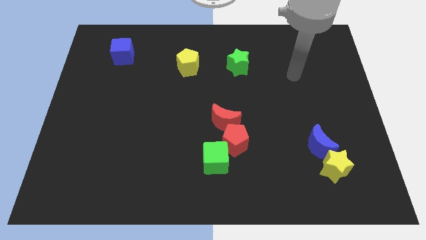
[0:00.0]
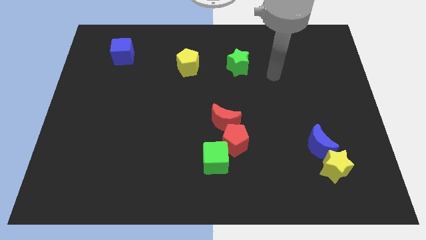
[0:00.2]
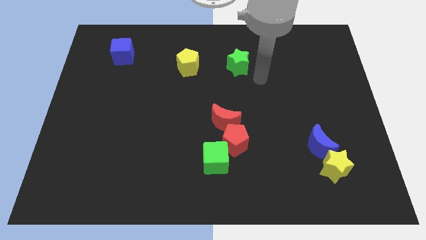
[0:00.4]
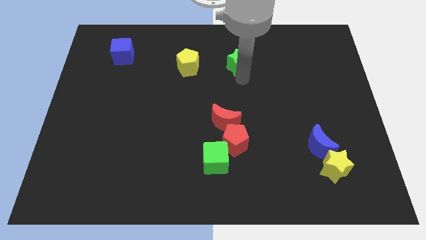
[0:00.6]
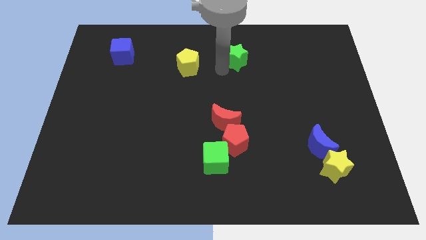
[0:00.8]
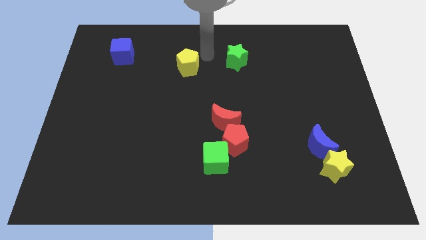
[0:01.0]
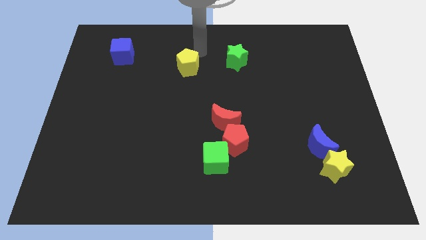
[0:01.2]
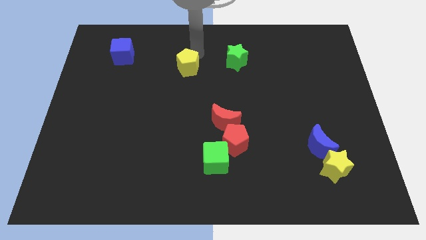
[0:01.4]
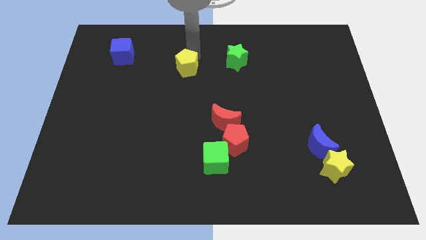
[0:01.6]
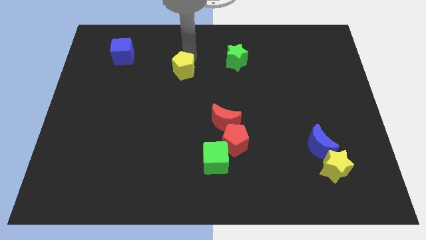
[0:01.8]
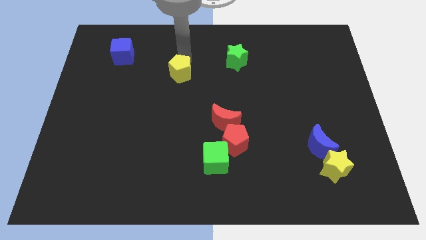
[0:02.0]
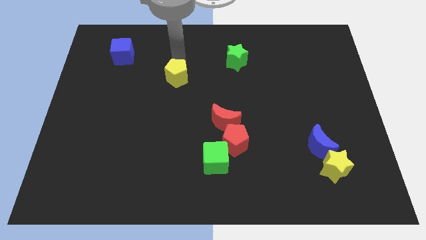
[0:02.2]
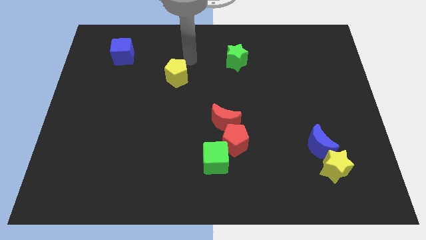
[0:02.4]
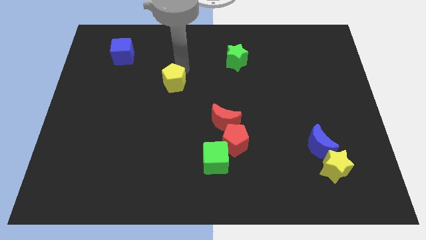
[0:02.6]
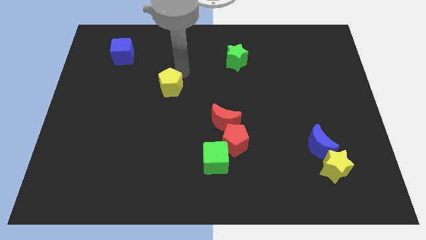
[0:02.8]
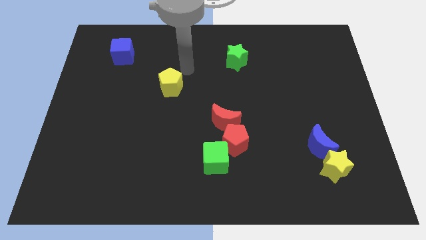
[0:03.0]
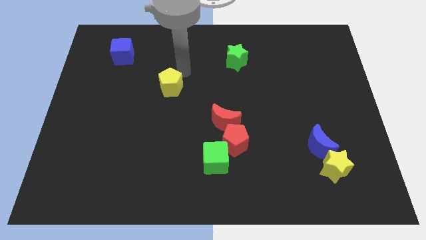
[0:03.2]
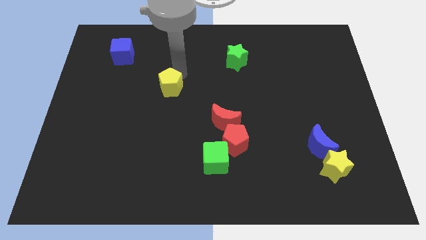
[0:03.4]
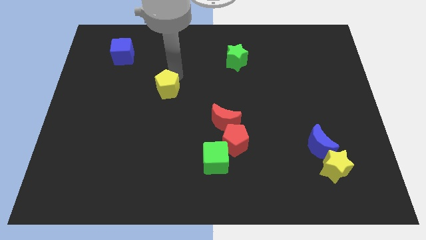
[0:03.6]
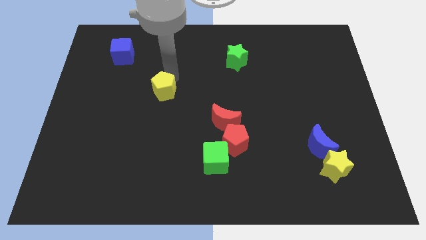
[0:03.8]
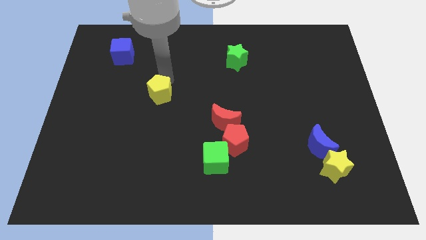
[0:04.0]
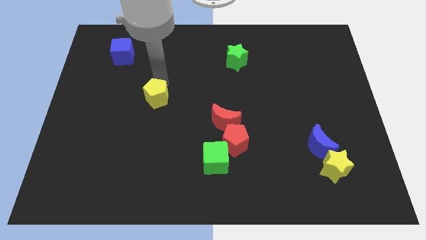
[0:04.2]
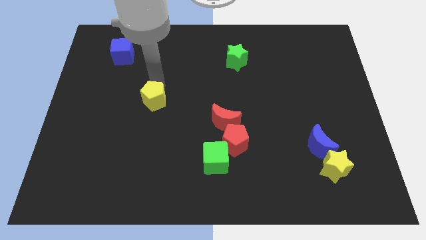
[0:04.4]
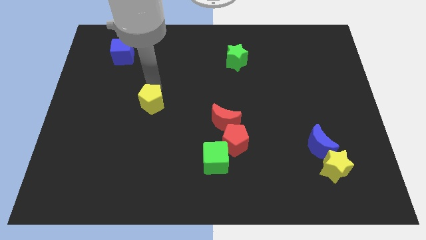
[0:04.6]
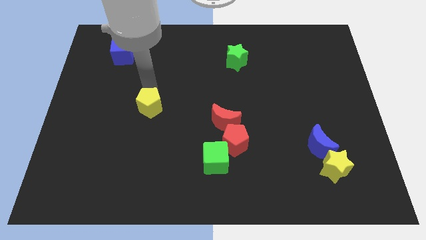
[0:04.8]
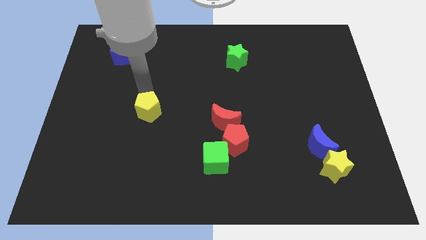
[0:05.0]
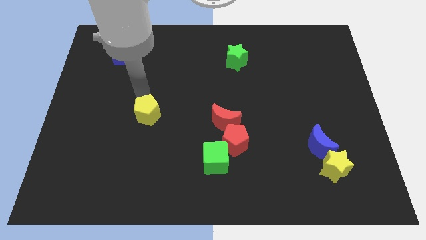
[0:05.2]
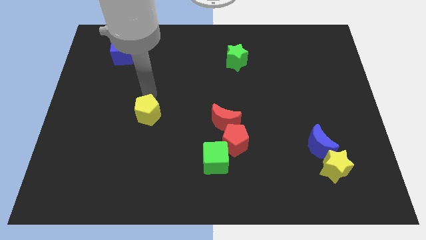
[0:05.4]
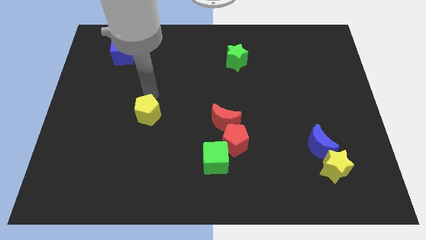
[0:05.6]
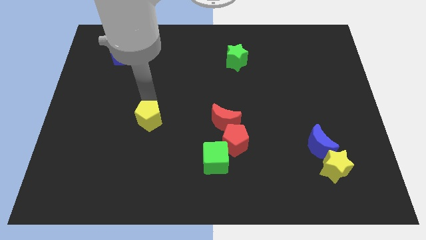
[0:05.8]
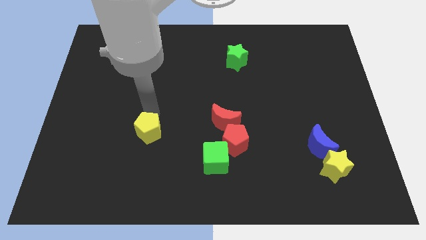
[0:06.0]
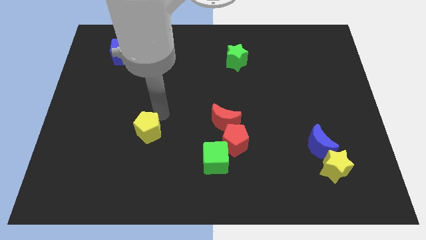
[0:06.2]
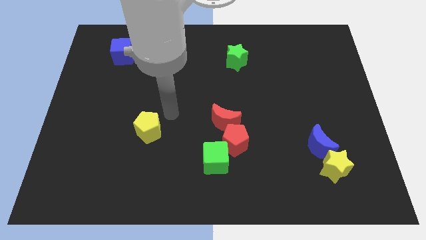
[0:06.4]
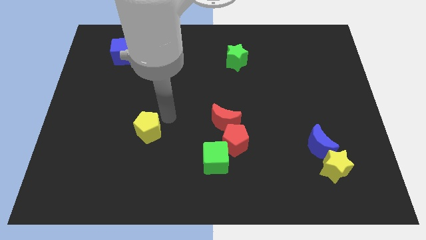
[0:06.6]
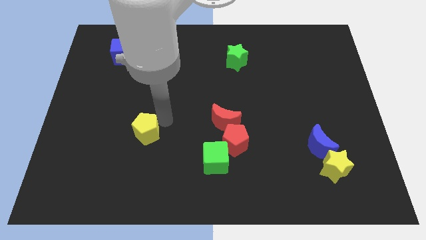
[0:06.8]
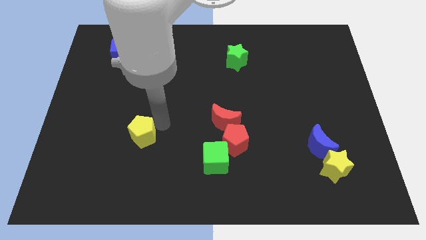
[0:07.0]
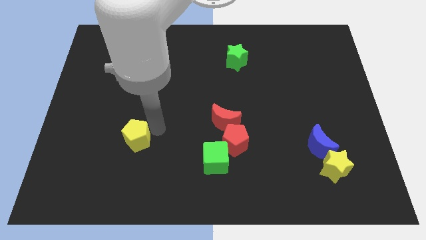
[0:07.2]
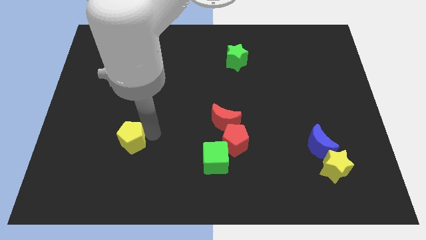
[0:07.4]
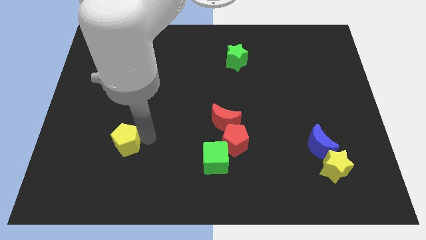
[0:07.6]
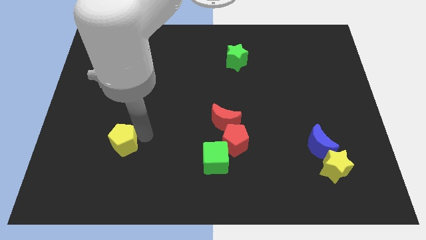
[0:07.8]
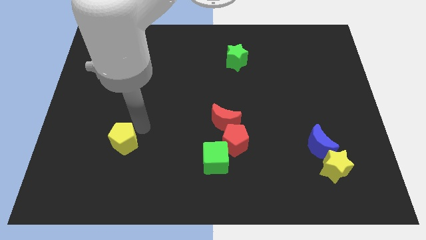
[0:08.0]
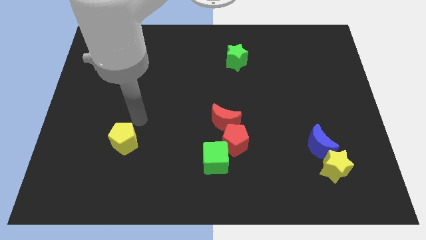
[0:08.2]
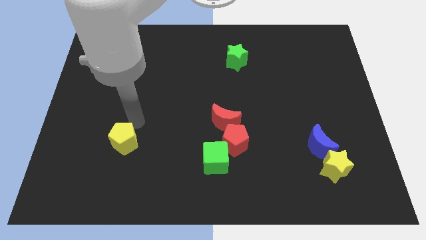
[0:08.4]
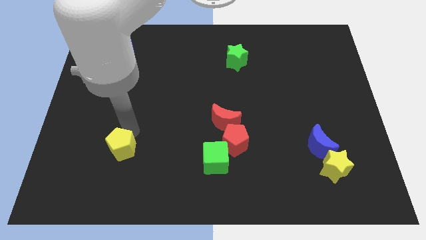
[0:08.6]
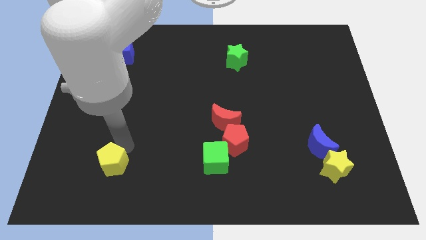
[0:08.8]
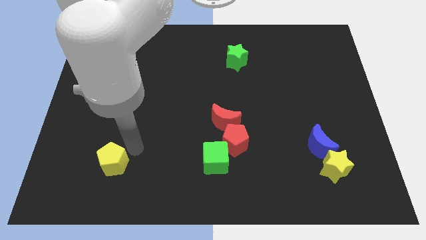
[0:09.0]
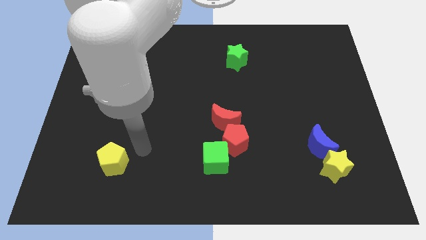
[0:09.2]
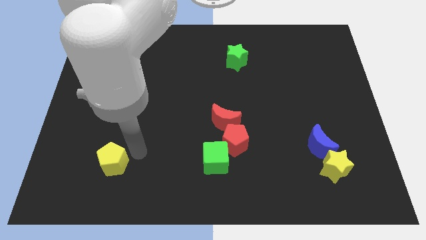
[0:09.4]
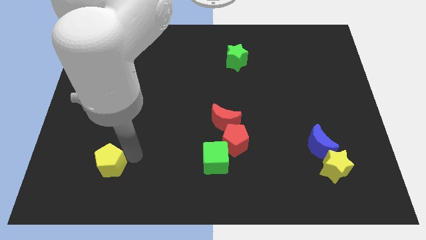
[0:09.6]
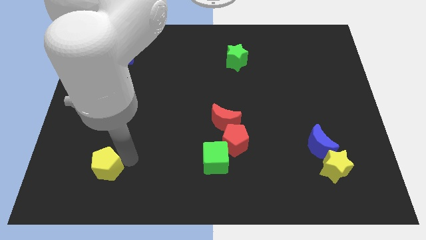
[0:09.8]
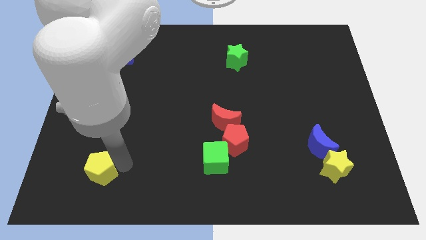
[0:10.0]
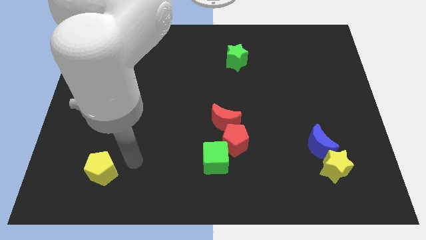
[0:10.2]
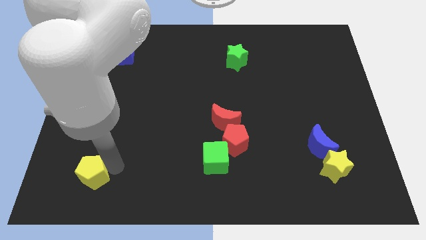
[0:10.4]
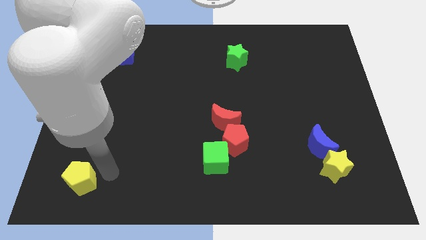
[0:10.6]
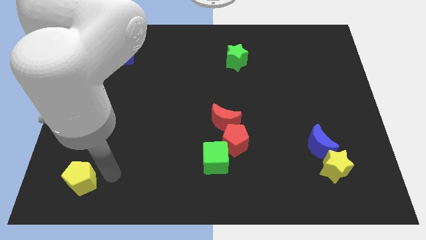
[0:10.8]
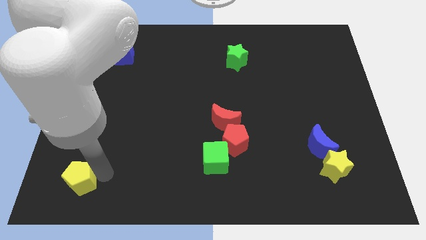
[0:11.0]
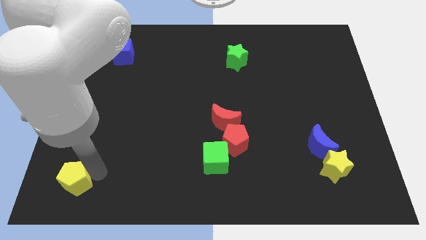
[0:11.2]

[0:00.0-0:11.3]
push the yellow pentagon to the bottom left corner
